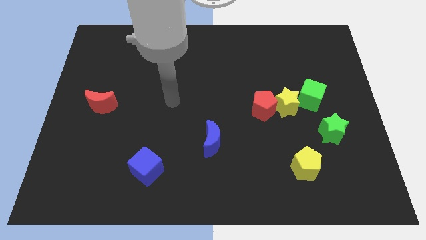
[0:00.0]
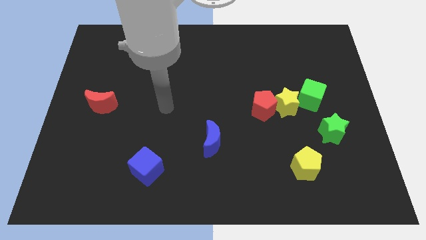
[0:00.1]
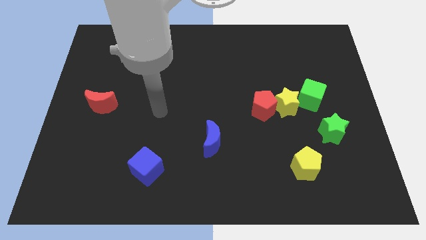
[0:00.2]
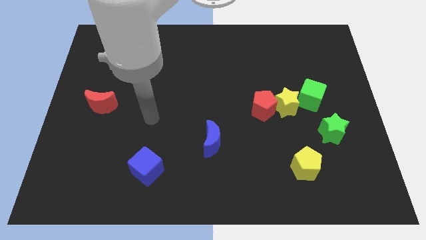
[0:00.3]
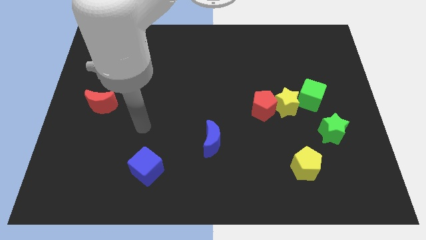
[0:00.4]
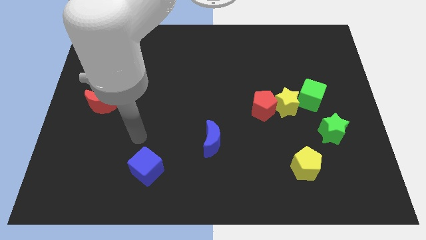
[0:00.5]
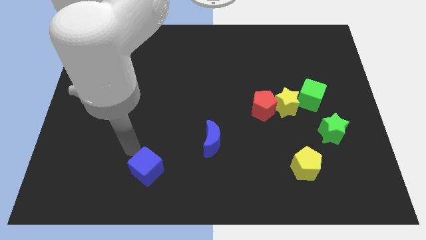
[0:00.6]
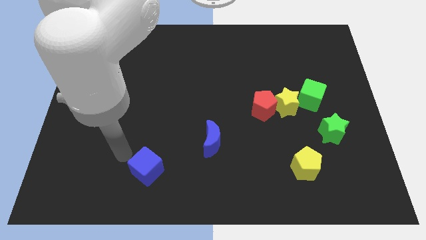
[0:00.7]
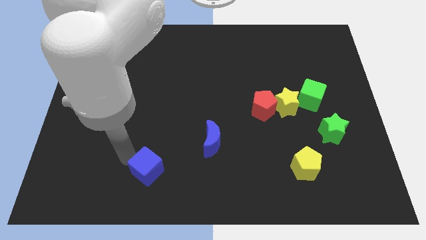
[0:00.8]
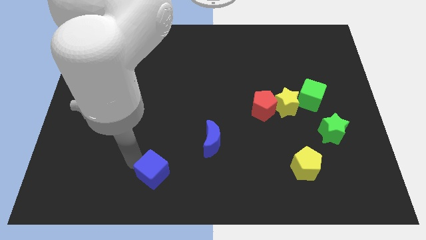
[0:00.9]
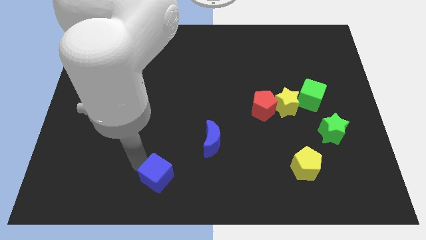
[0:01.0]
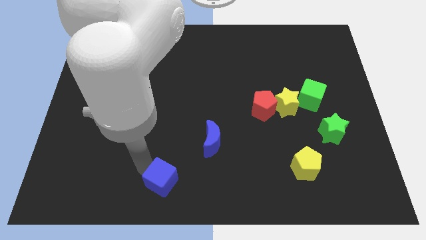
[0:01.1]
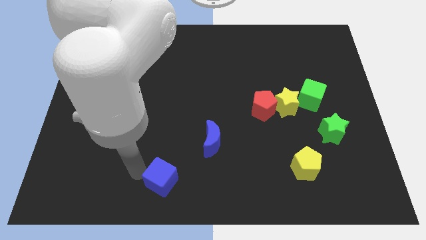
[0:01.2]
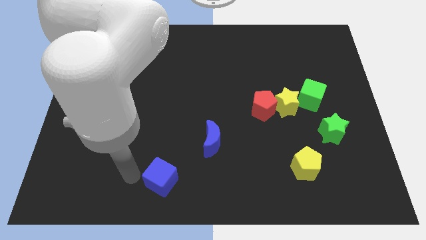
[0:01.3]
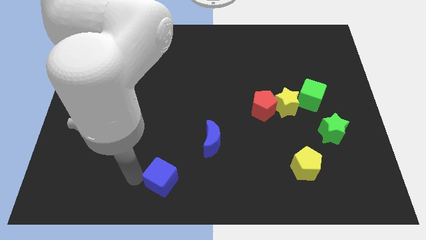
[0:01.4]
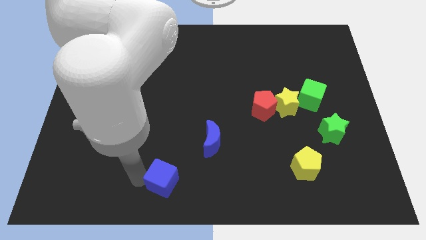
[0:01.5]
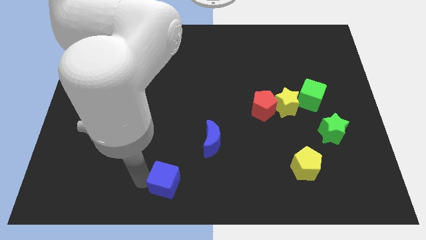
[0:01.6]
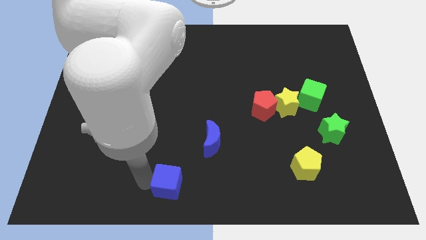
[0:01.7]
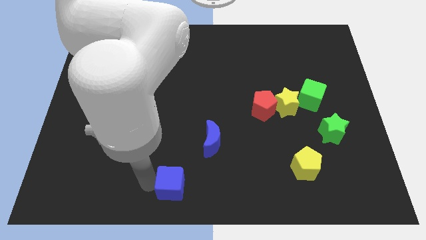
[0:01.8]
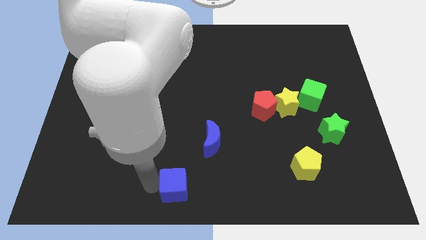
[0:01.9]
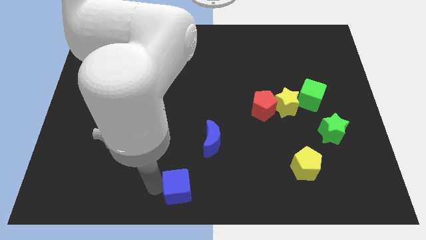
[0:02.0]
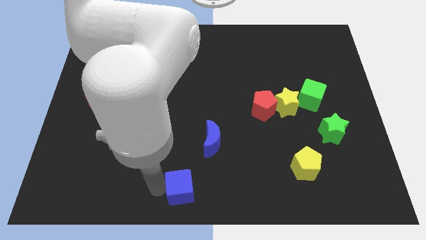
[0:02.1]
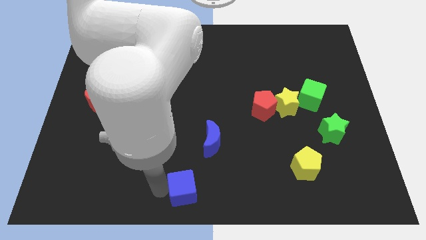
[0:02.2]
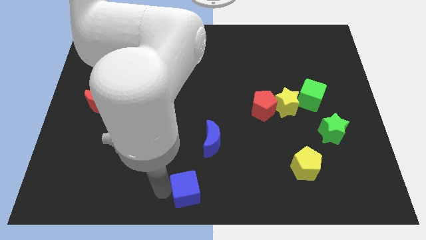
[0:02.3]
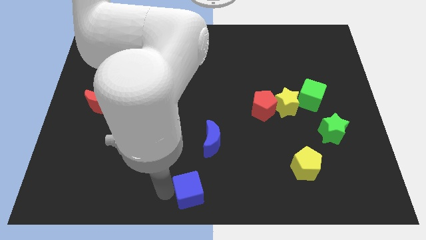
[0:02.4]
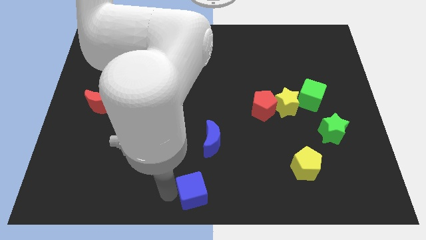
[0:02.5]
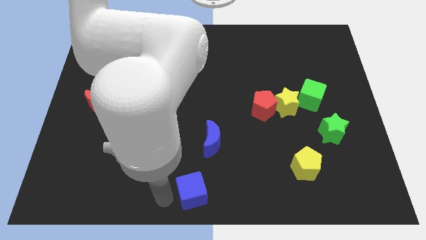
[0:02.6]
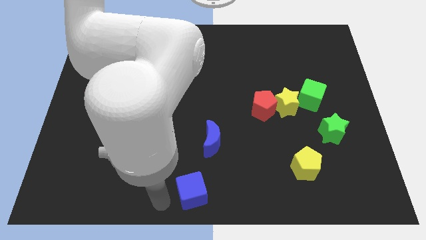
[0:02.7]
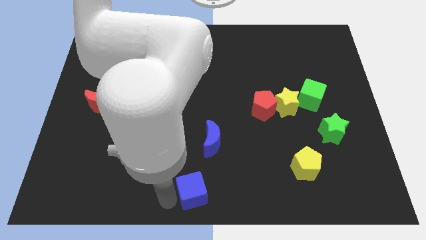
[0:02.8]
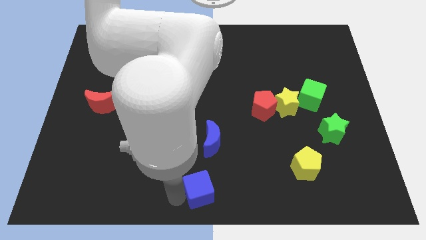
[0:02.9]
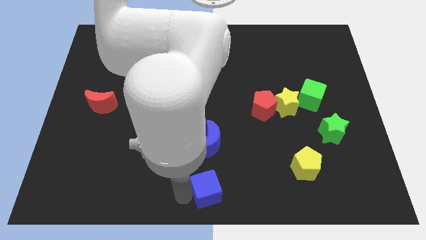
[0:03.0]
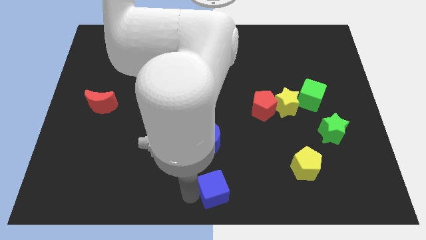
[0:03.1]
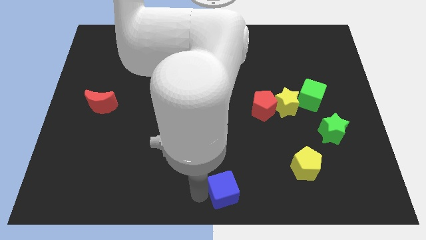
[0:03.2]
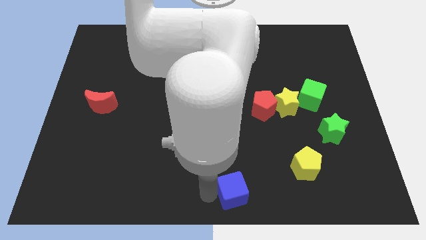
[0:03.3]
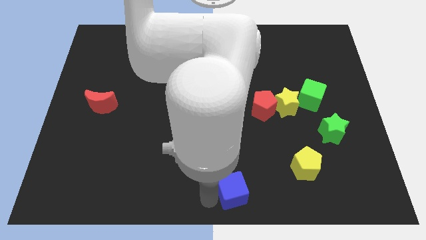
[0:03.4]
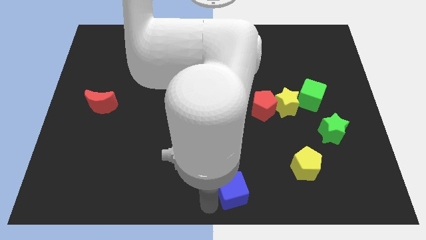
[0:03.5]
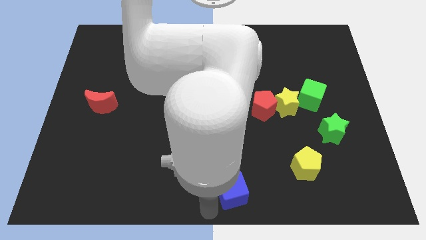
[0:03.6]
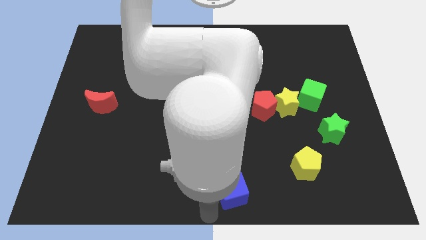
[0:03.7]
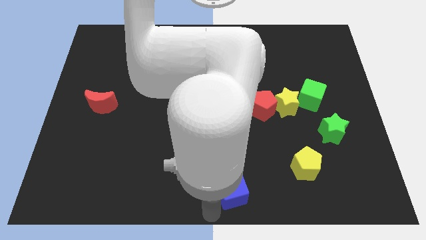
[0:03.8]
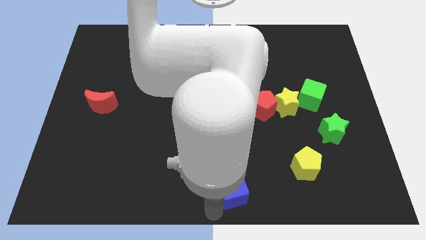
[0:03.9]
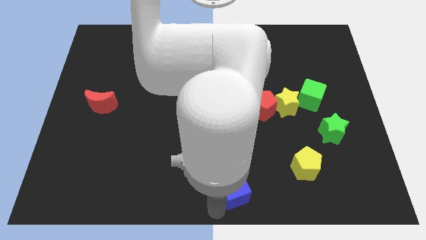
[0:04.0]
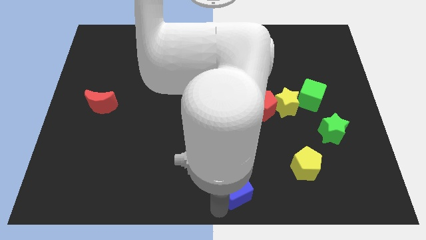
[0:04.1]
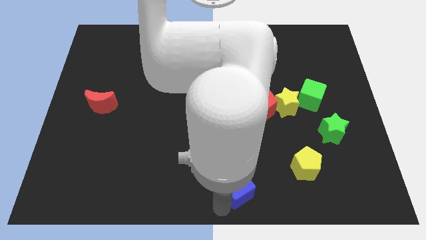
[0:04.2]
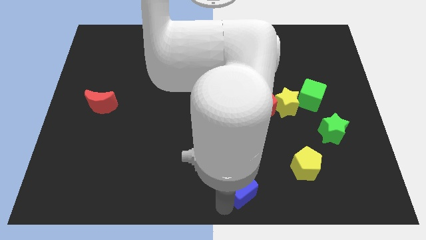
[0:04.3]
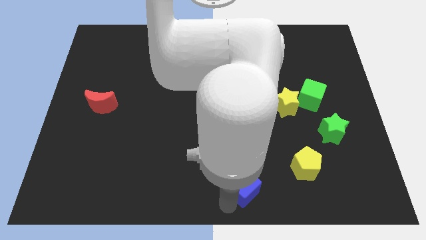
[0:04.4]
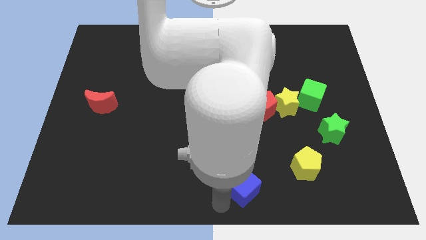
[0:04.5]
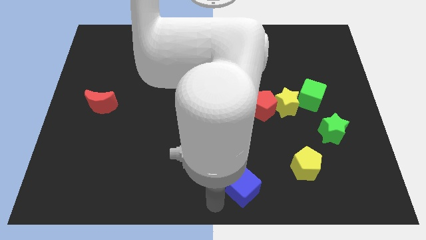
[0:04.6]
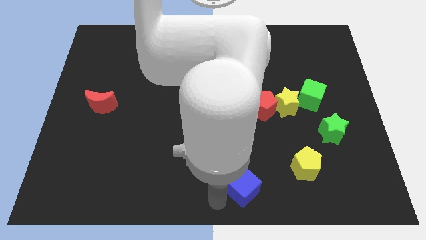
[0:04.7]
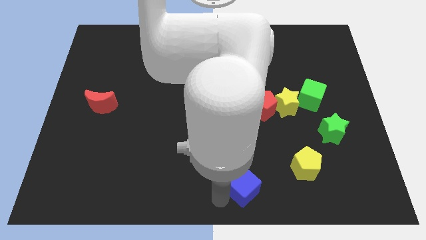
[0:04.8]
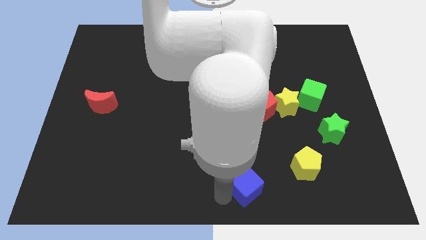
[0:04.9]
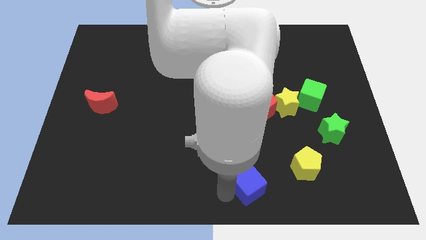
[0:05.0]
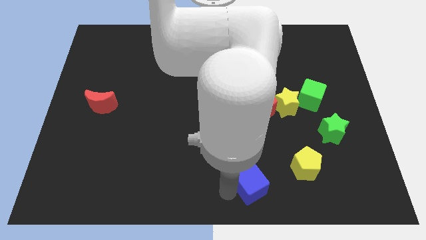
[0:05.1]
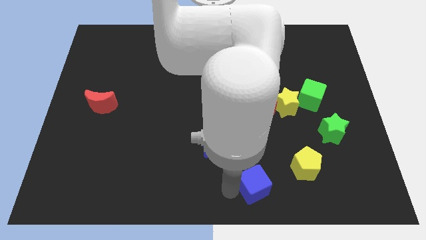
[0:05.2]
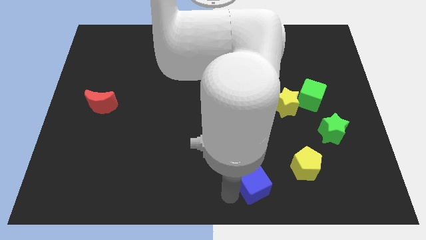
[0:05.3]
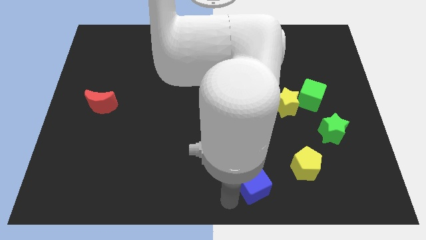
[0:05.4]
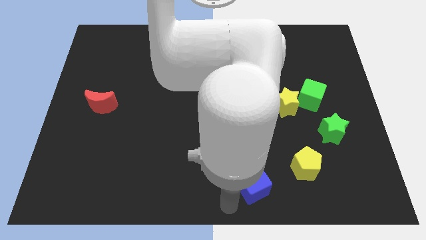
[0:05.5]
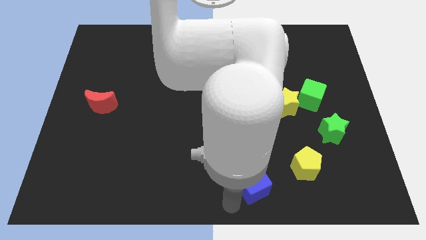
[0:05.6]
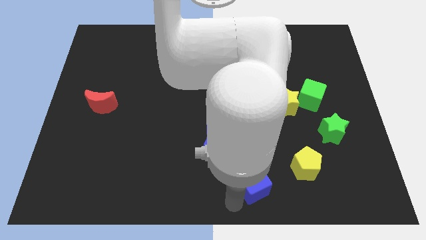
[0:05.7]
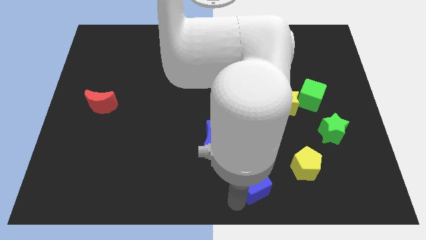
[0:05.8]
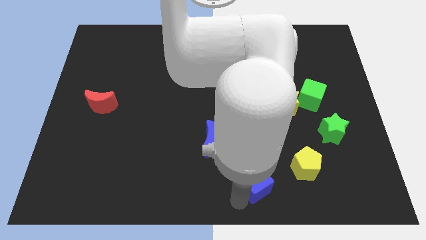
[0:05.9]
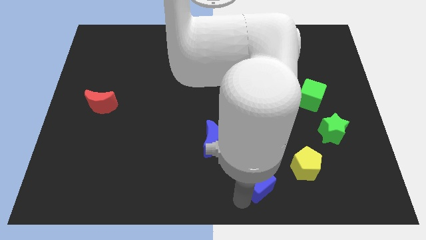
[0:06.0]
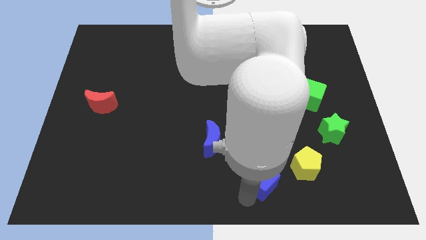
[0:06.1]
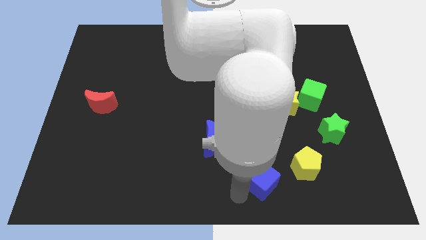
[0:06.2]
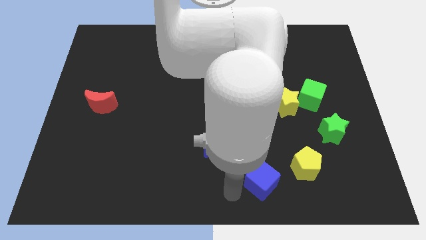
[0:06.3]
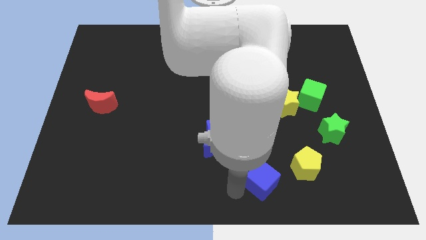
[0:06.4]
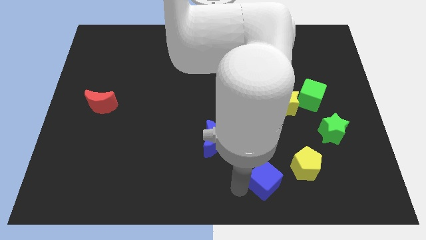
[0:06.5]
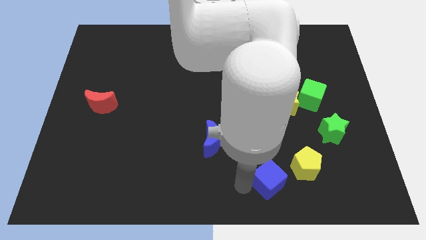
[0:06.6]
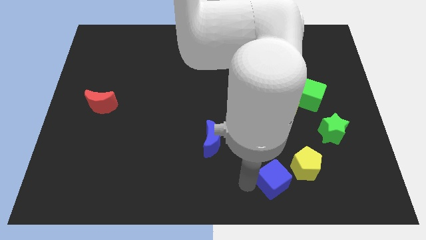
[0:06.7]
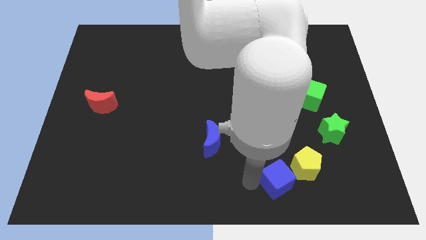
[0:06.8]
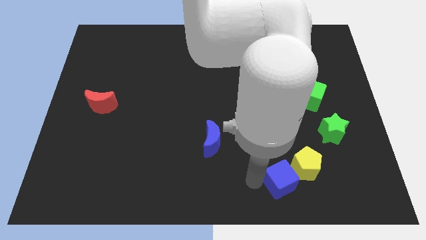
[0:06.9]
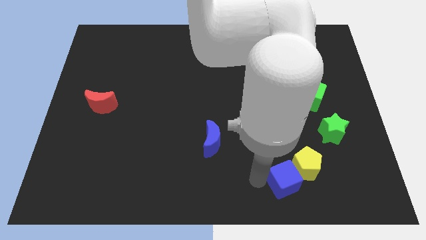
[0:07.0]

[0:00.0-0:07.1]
push the blue cube towards the yellow pentagon
